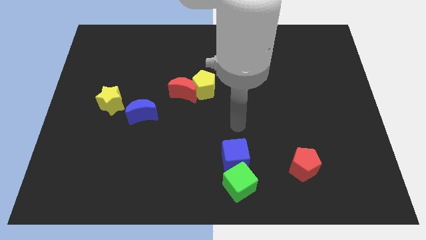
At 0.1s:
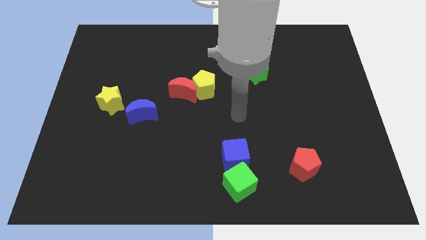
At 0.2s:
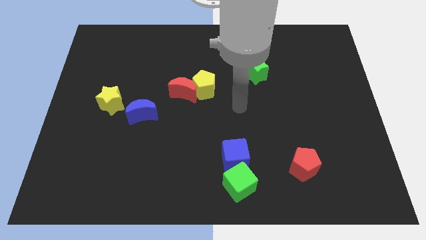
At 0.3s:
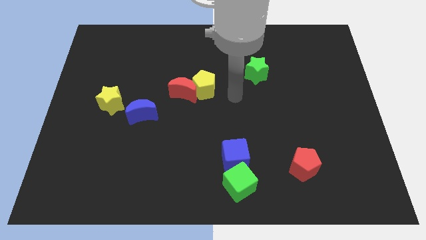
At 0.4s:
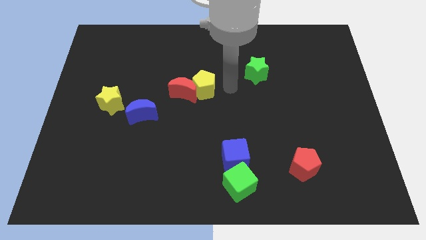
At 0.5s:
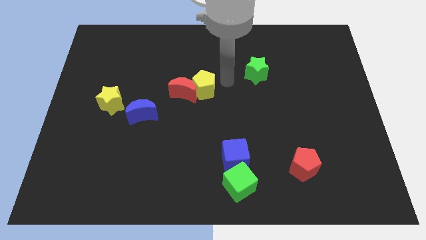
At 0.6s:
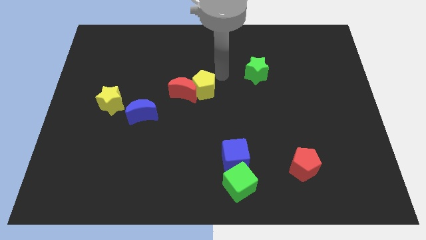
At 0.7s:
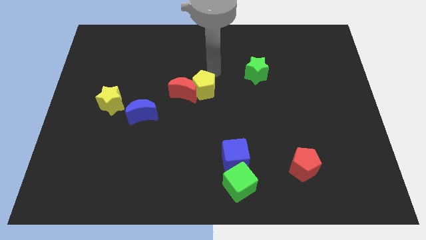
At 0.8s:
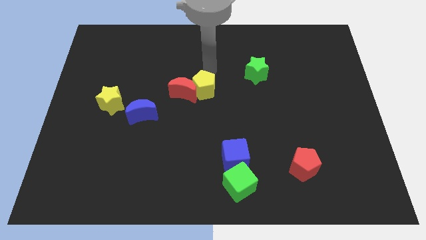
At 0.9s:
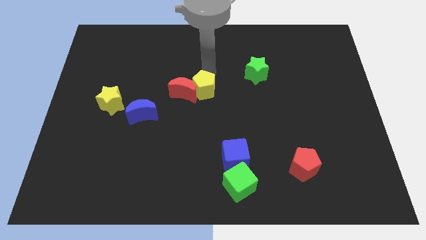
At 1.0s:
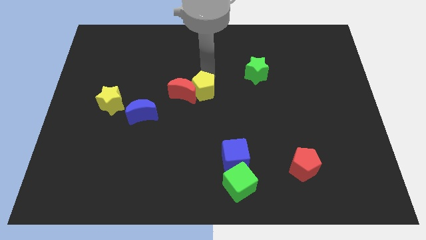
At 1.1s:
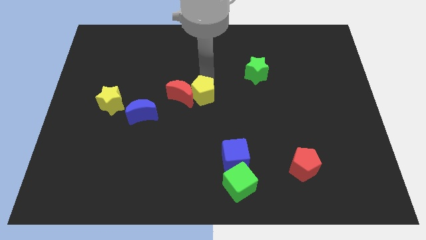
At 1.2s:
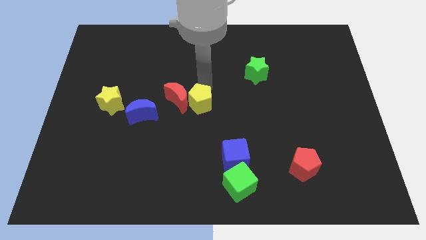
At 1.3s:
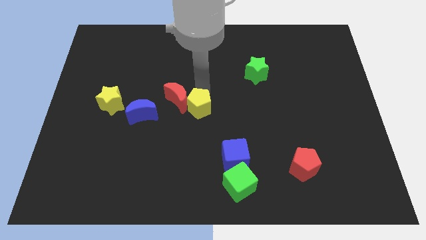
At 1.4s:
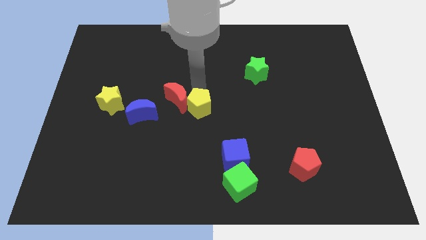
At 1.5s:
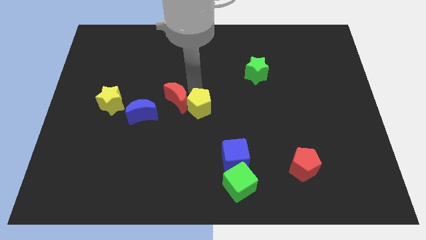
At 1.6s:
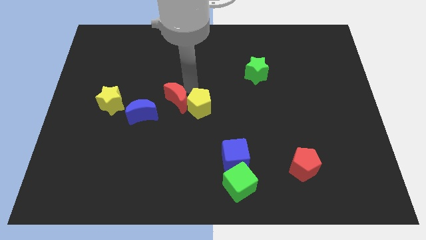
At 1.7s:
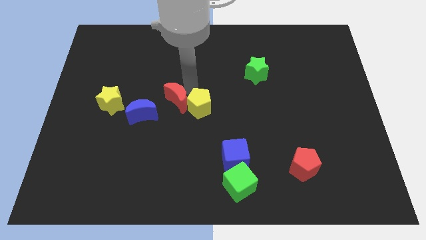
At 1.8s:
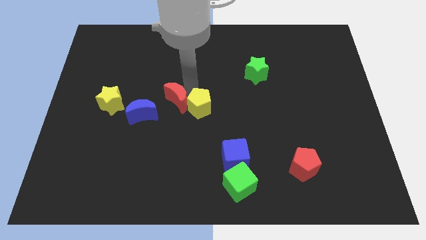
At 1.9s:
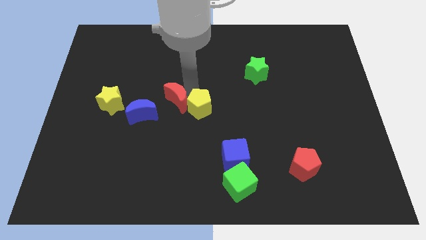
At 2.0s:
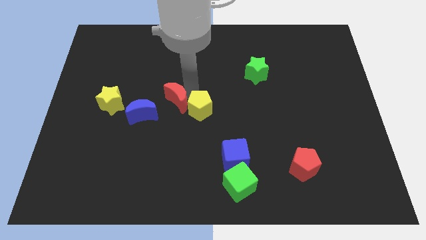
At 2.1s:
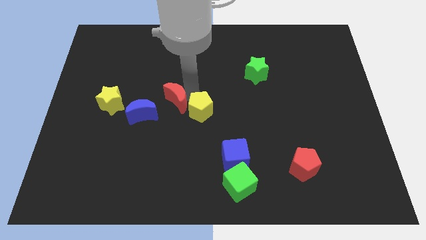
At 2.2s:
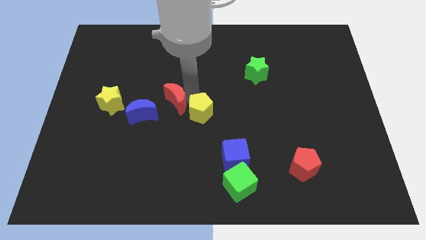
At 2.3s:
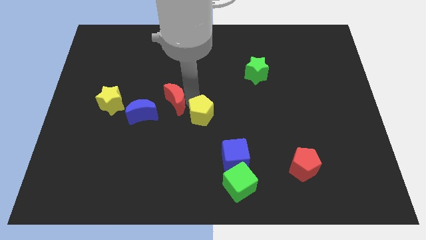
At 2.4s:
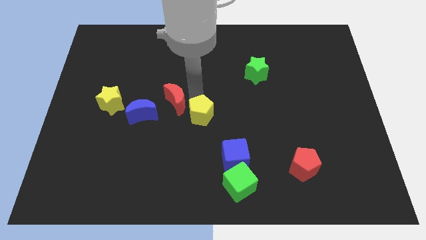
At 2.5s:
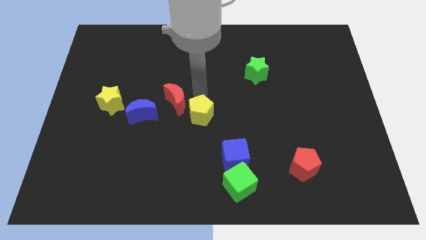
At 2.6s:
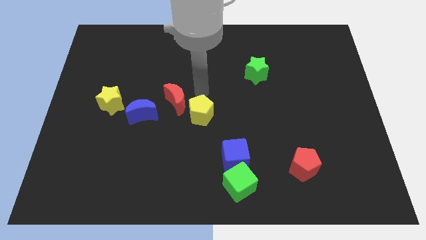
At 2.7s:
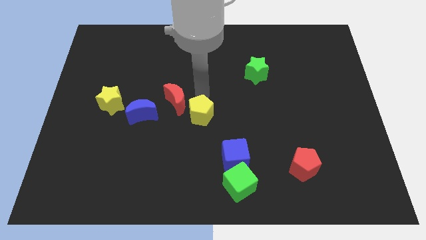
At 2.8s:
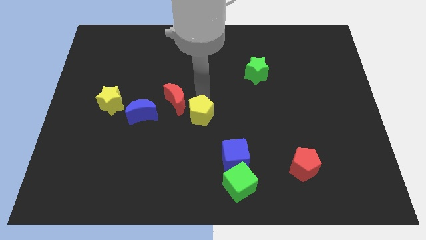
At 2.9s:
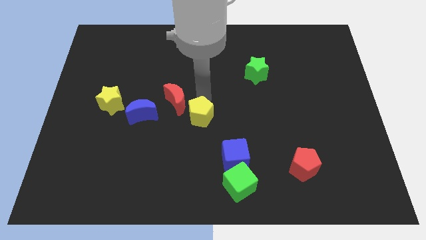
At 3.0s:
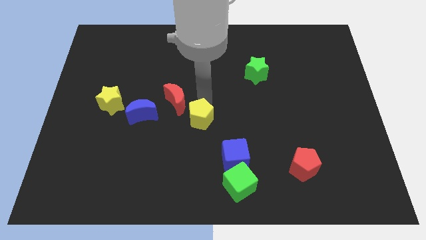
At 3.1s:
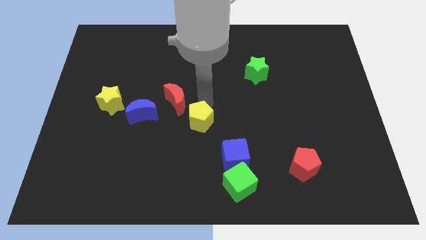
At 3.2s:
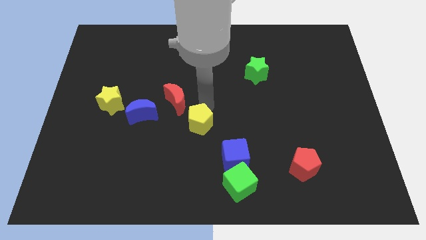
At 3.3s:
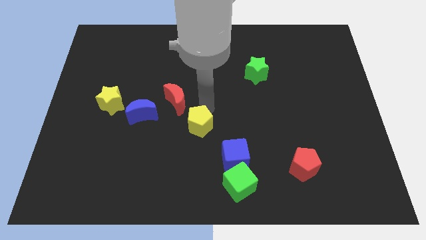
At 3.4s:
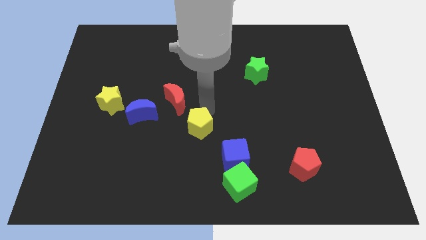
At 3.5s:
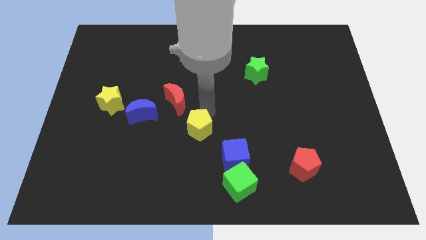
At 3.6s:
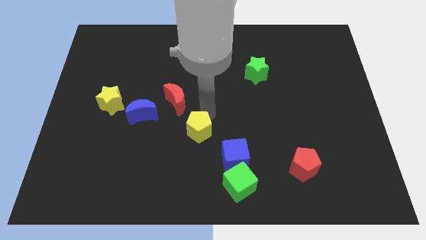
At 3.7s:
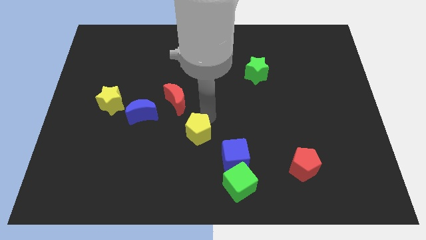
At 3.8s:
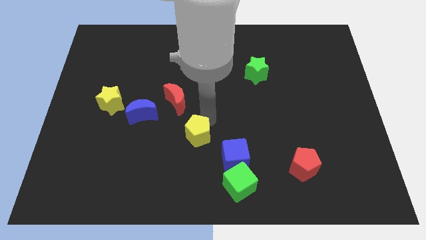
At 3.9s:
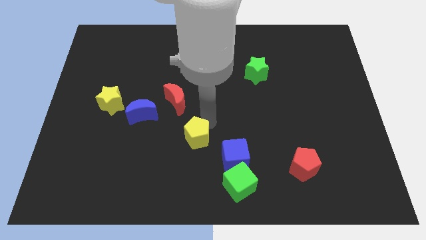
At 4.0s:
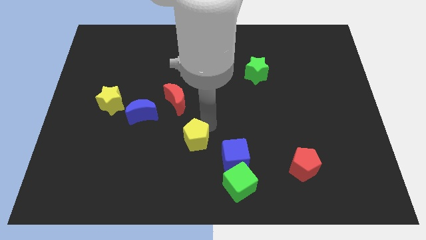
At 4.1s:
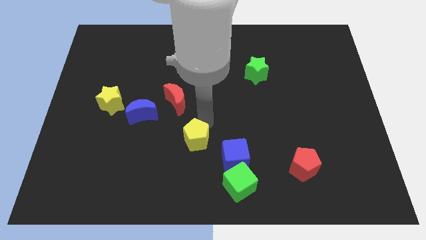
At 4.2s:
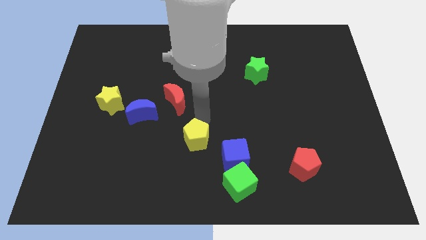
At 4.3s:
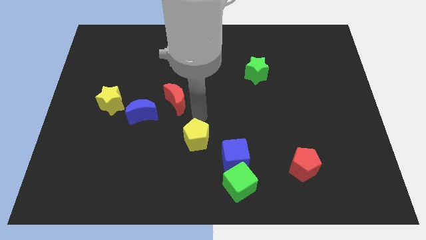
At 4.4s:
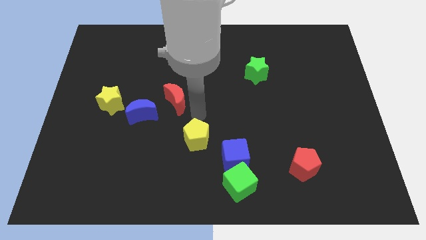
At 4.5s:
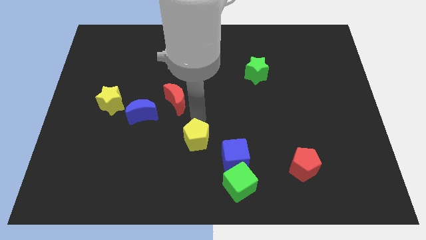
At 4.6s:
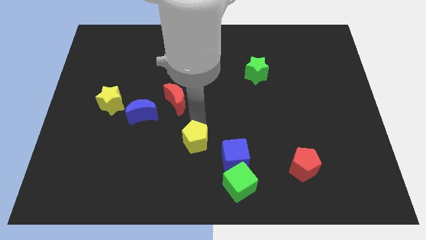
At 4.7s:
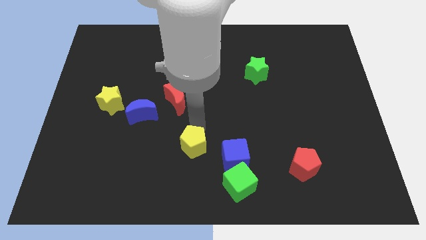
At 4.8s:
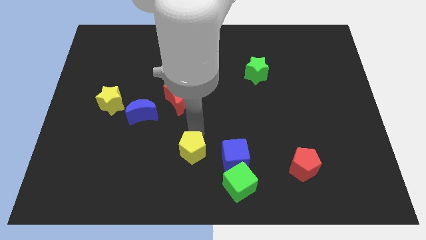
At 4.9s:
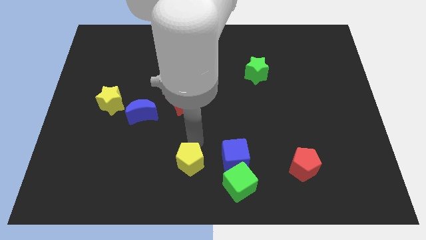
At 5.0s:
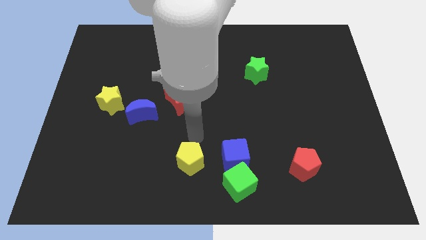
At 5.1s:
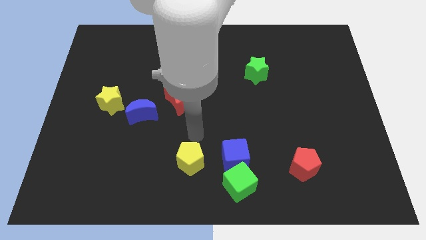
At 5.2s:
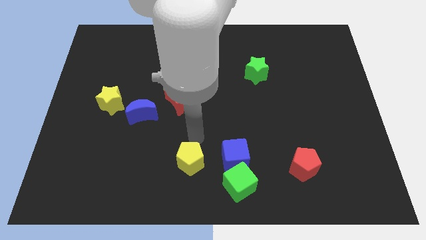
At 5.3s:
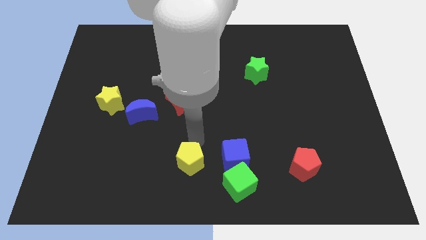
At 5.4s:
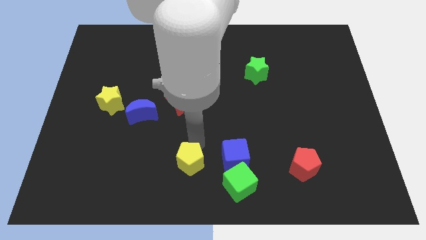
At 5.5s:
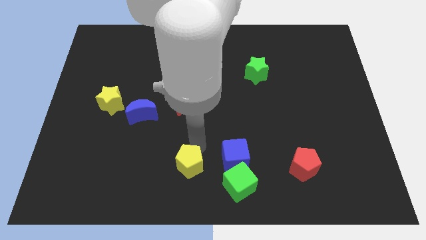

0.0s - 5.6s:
move the yellow pentagon to the left of the green cube

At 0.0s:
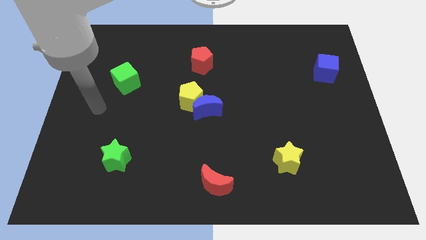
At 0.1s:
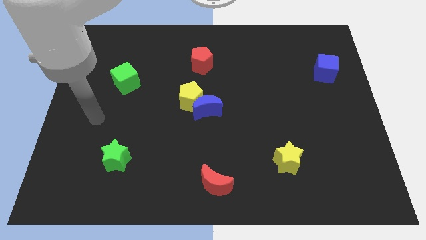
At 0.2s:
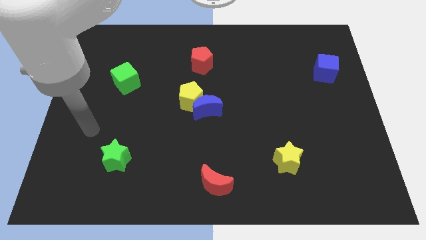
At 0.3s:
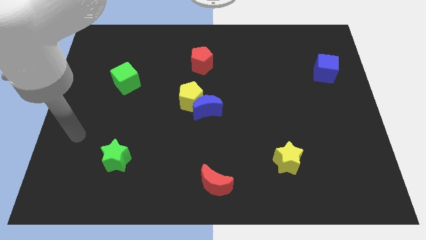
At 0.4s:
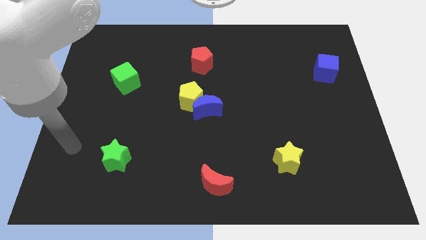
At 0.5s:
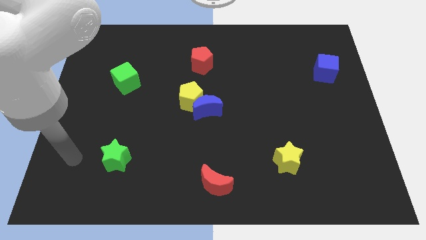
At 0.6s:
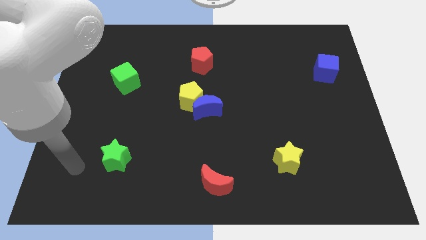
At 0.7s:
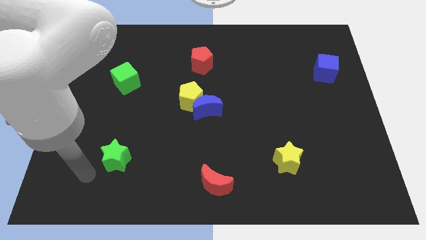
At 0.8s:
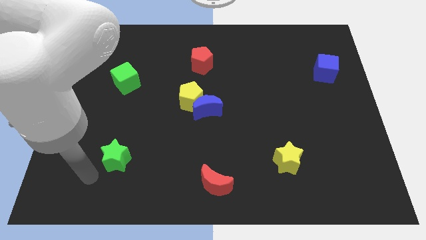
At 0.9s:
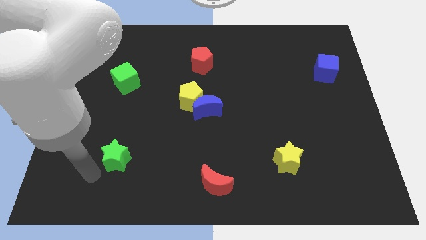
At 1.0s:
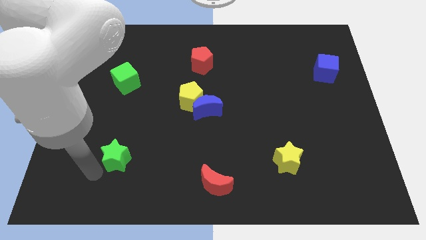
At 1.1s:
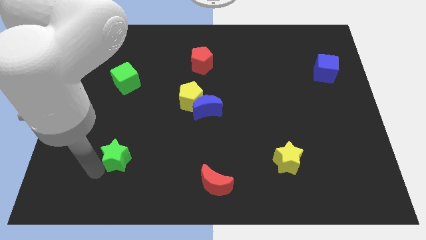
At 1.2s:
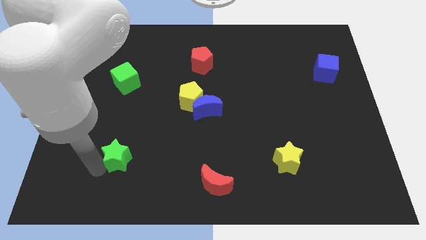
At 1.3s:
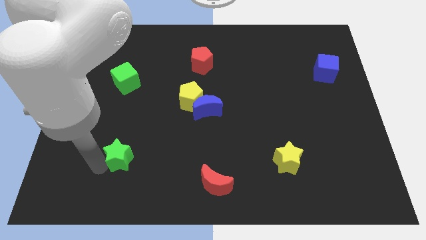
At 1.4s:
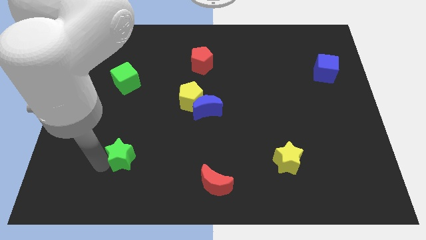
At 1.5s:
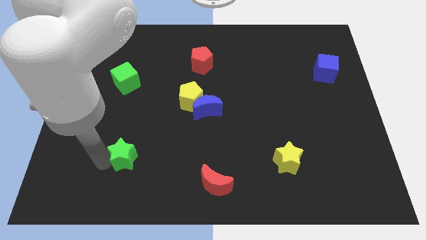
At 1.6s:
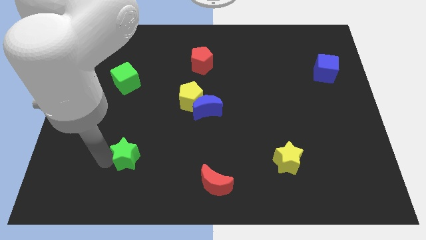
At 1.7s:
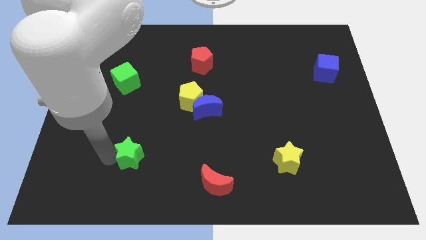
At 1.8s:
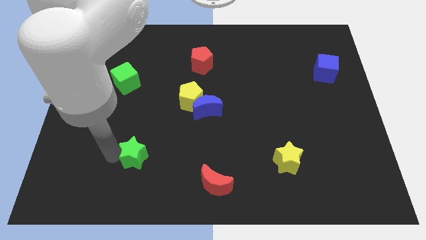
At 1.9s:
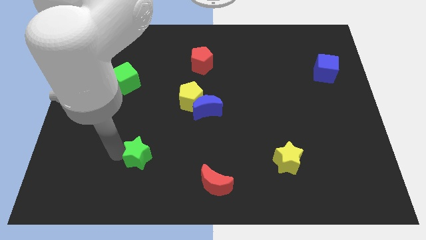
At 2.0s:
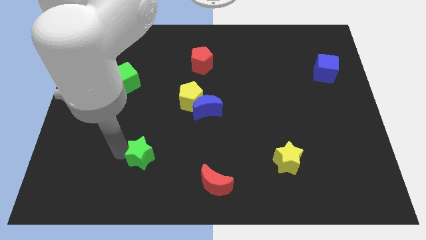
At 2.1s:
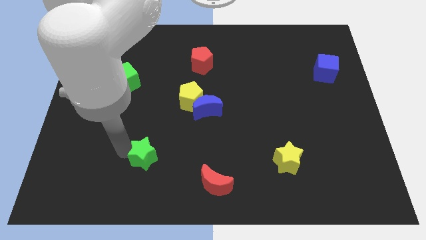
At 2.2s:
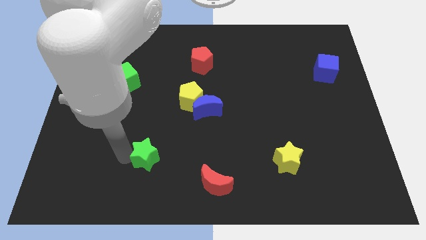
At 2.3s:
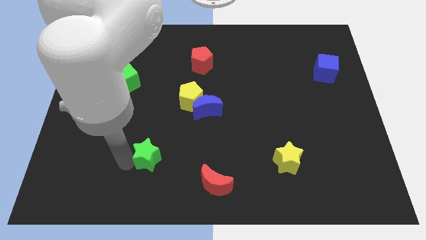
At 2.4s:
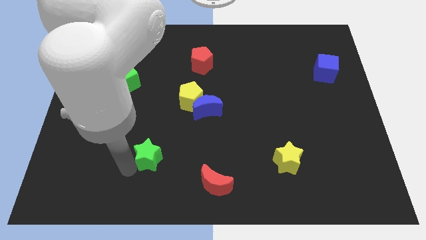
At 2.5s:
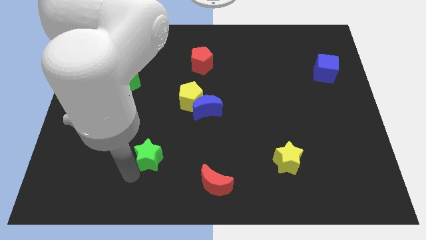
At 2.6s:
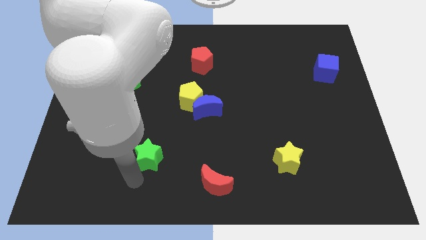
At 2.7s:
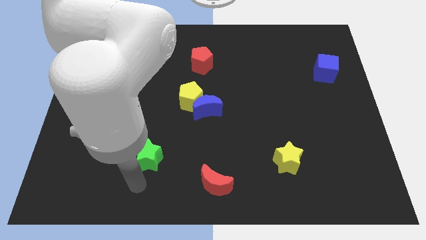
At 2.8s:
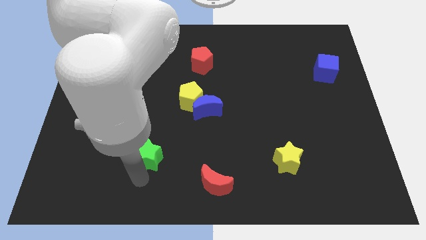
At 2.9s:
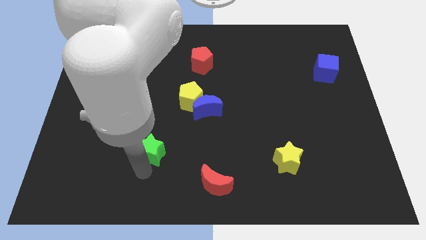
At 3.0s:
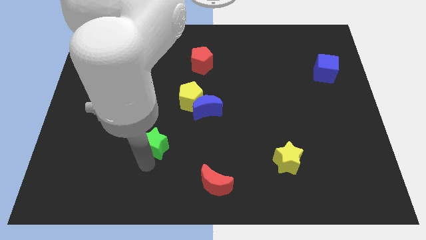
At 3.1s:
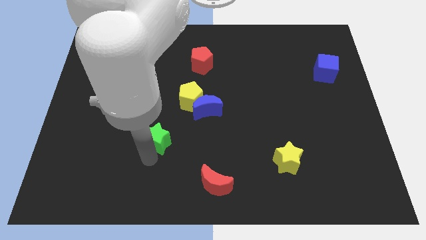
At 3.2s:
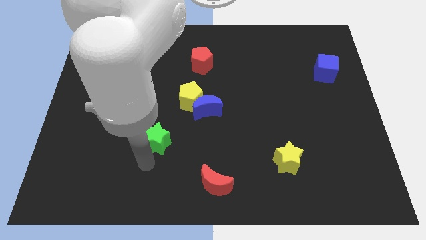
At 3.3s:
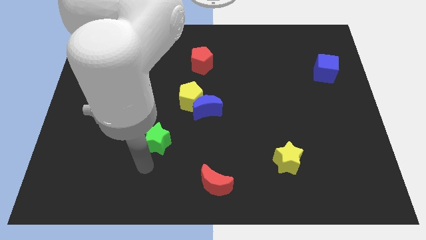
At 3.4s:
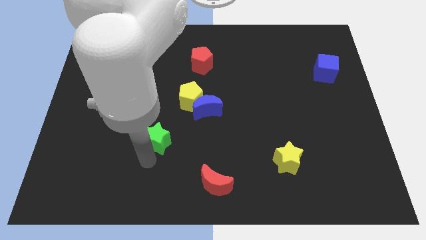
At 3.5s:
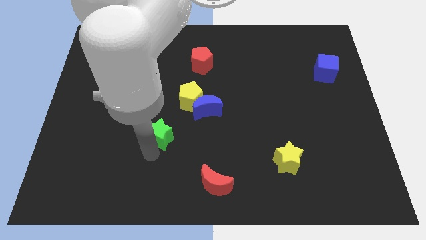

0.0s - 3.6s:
move the green star diagonally down and to the left of the yellow pentagon
